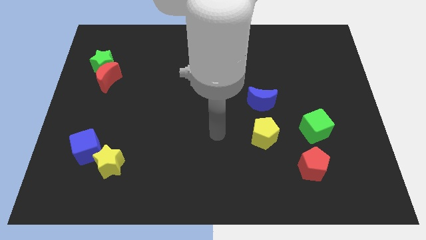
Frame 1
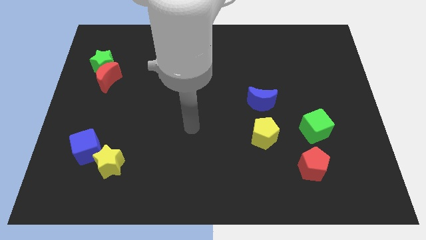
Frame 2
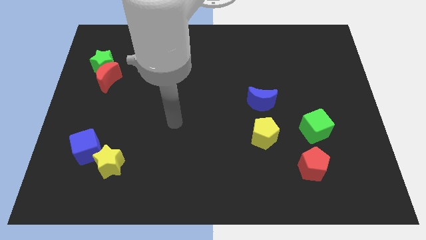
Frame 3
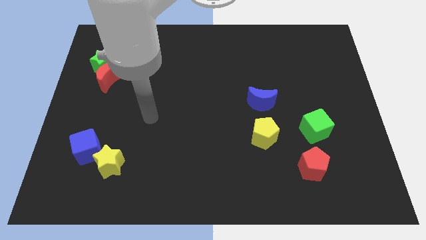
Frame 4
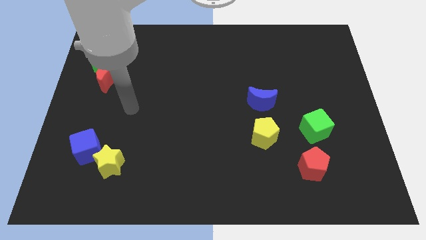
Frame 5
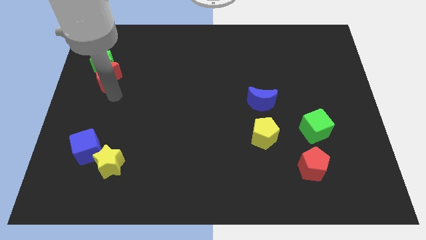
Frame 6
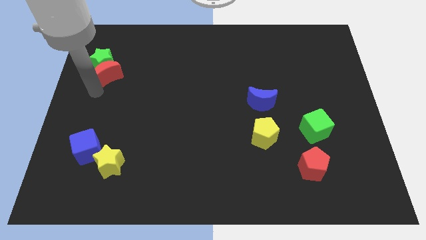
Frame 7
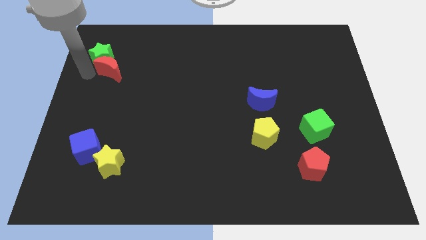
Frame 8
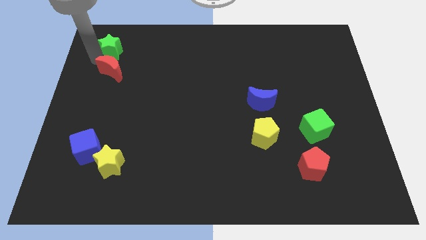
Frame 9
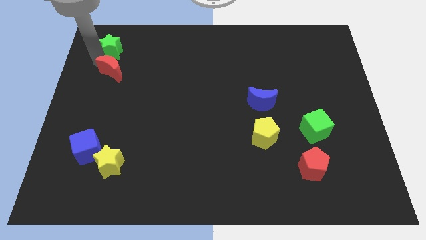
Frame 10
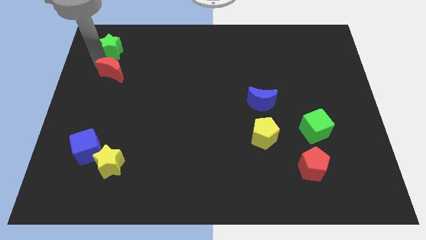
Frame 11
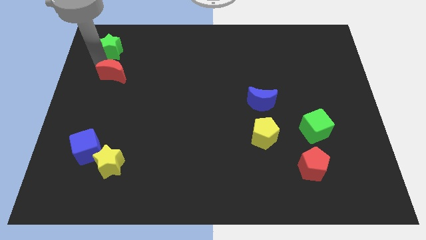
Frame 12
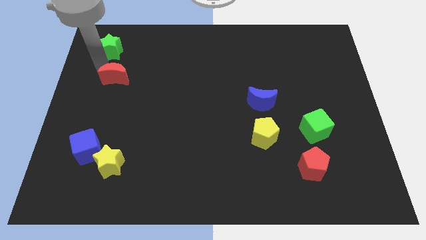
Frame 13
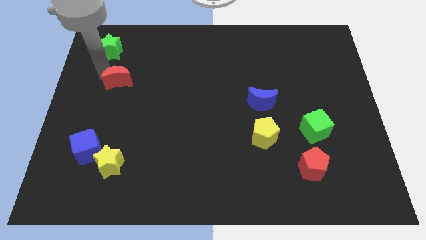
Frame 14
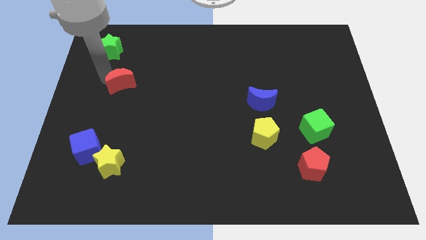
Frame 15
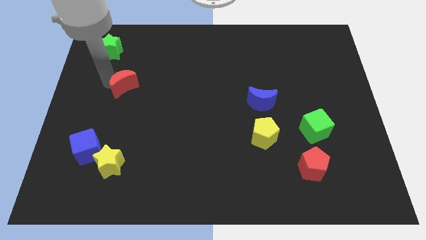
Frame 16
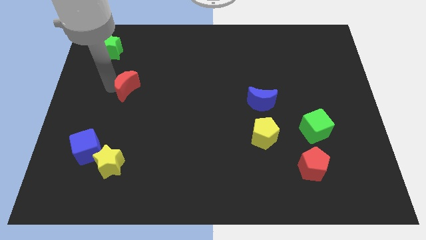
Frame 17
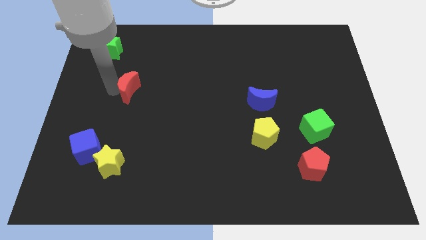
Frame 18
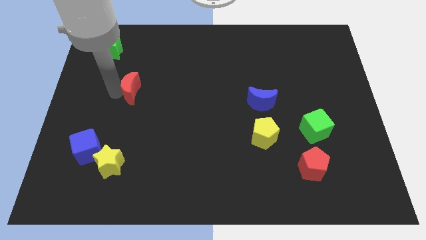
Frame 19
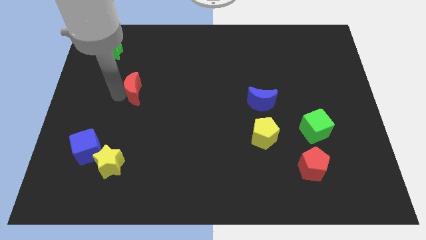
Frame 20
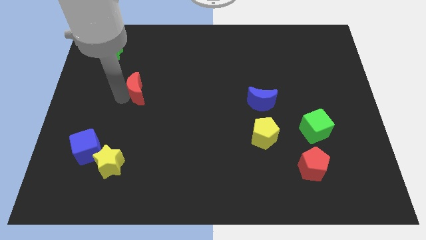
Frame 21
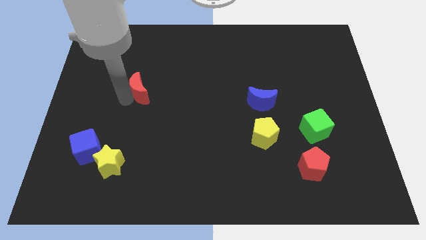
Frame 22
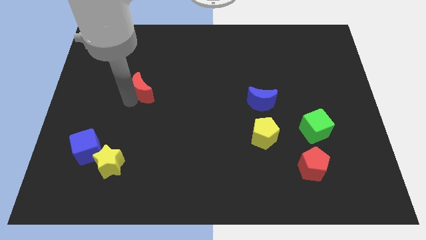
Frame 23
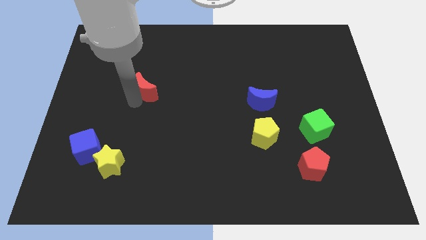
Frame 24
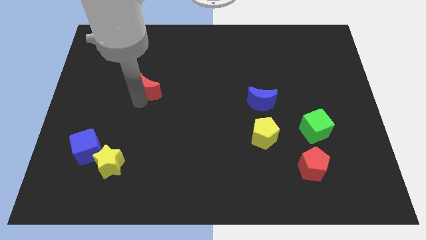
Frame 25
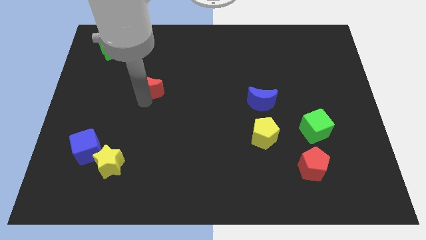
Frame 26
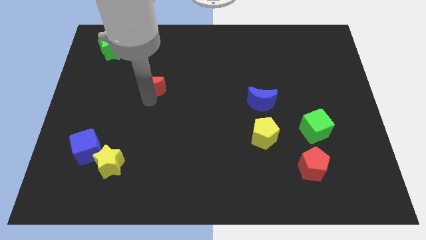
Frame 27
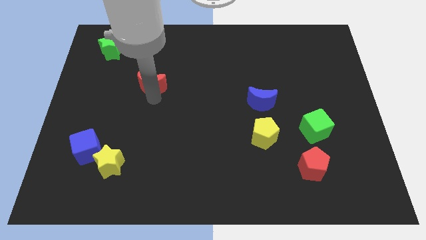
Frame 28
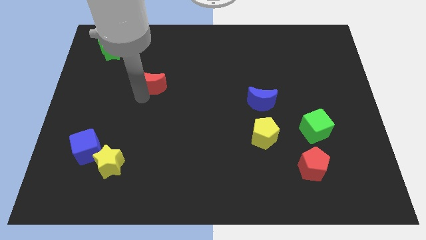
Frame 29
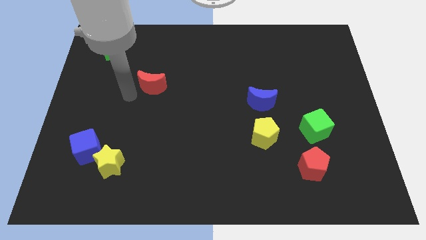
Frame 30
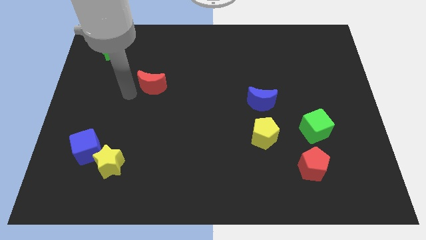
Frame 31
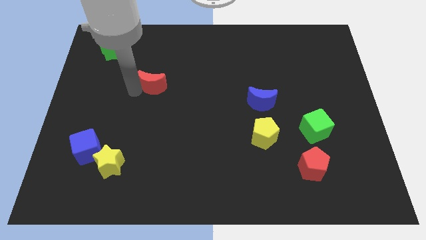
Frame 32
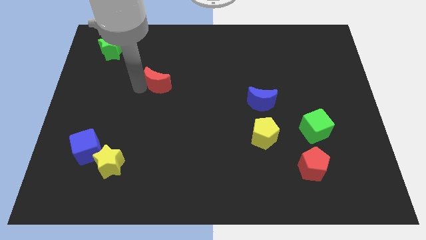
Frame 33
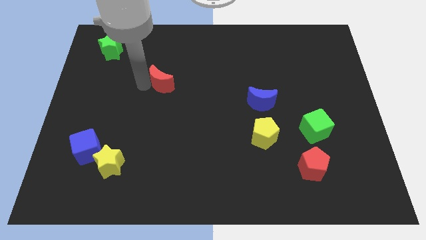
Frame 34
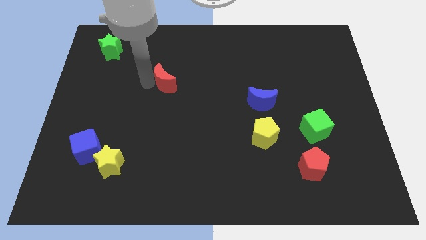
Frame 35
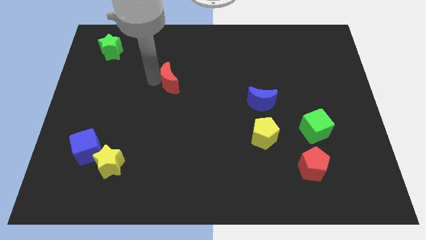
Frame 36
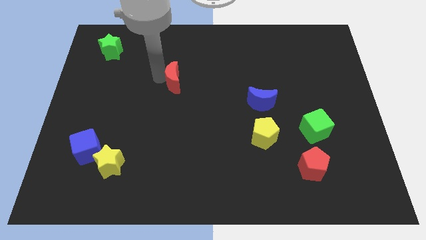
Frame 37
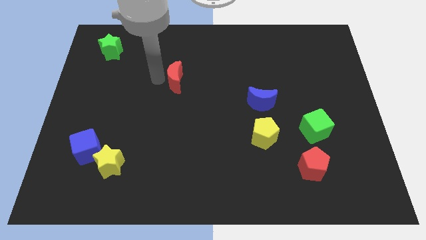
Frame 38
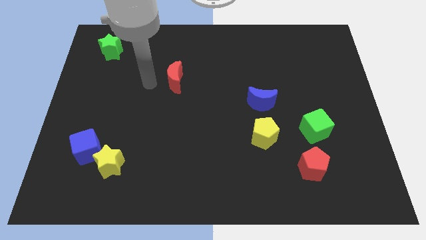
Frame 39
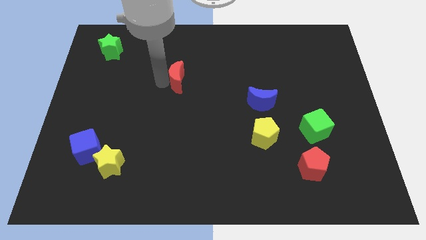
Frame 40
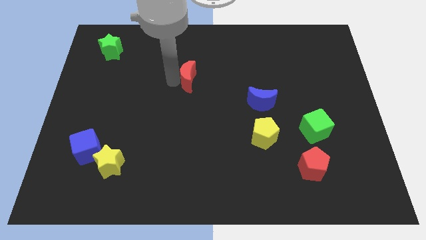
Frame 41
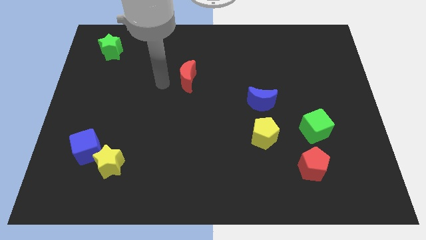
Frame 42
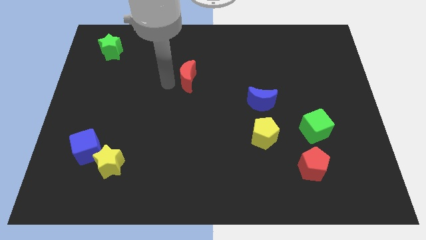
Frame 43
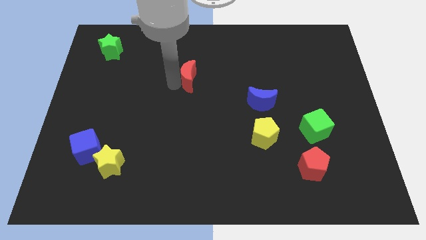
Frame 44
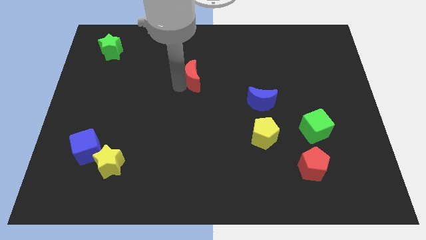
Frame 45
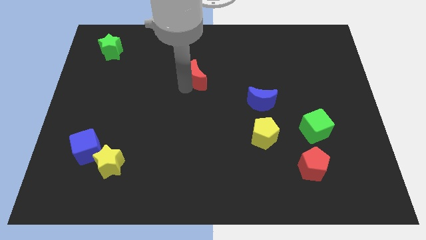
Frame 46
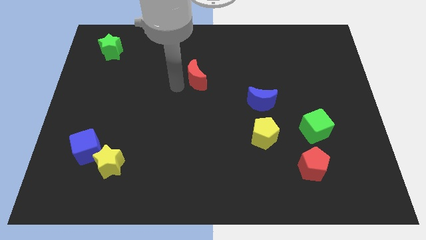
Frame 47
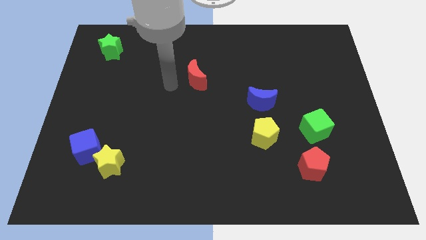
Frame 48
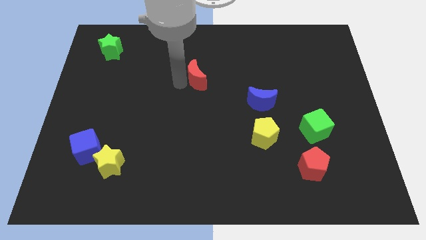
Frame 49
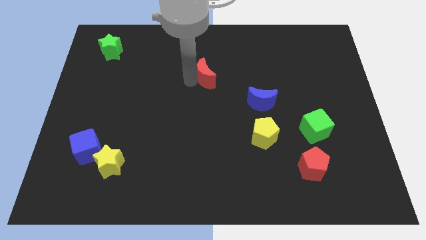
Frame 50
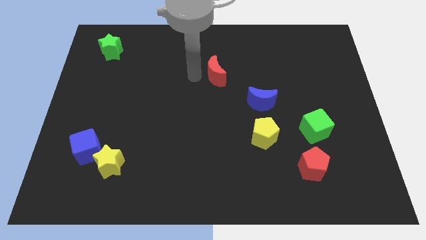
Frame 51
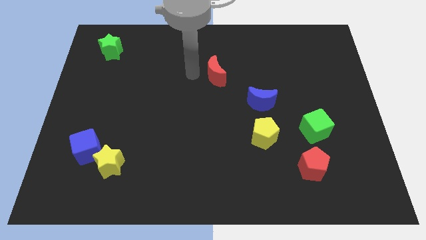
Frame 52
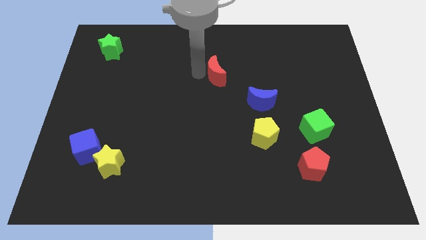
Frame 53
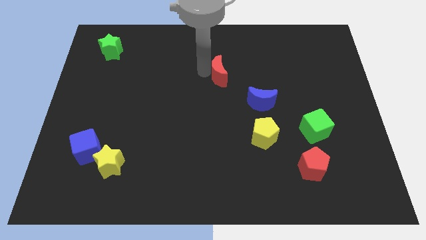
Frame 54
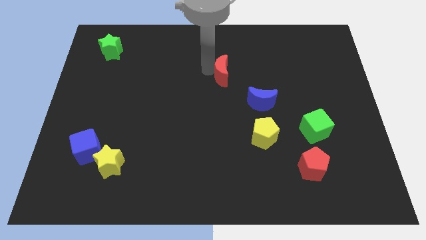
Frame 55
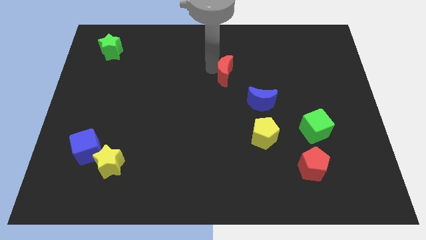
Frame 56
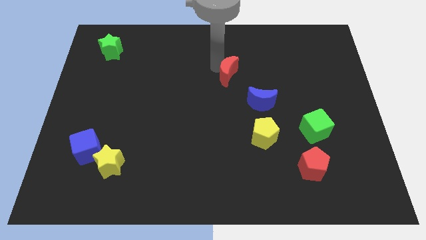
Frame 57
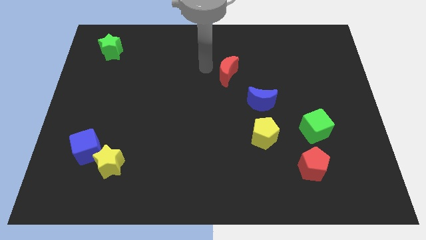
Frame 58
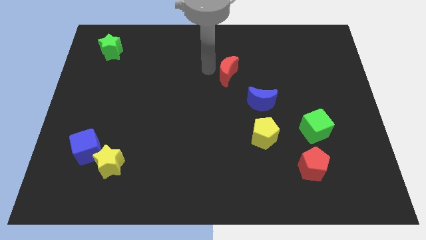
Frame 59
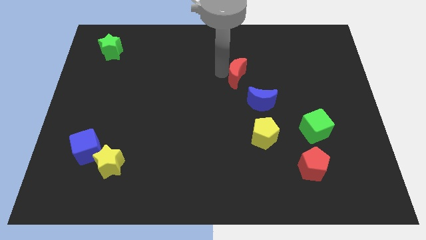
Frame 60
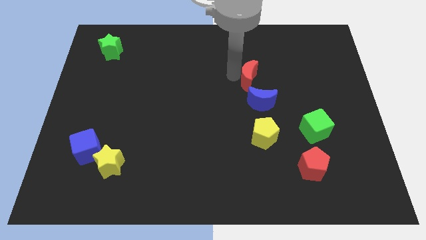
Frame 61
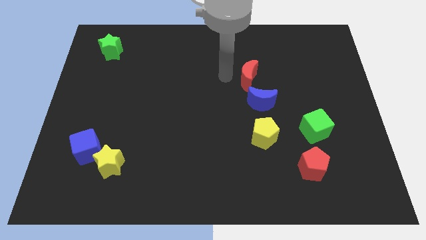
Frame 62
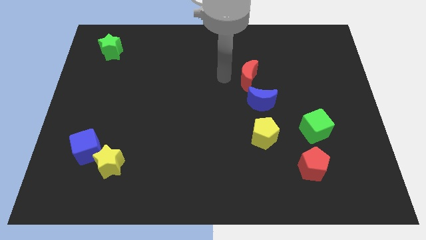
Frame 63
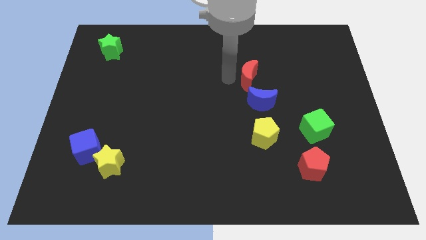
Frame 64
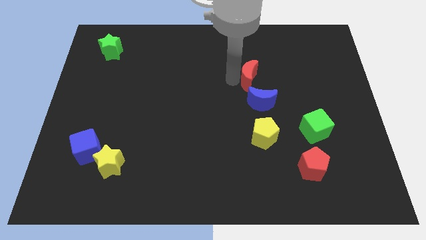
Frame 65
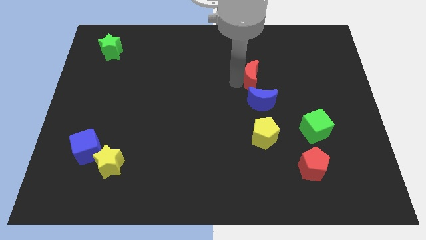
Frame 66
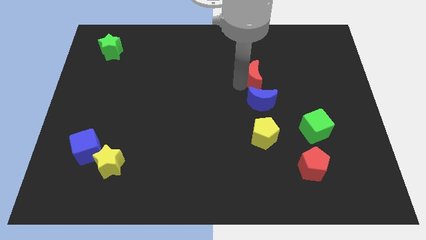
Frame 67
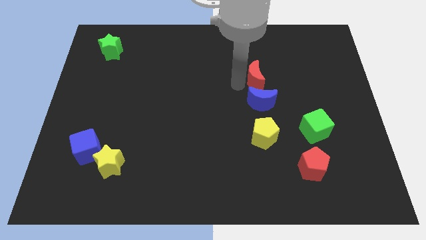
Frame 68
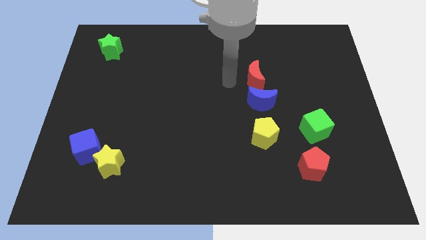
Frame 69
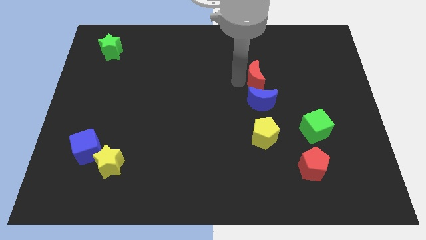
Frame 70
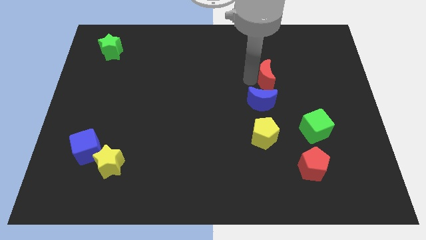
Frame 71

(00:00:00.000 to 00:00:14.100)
move the red moon diagonally up and to the right of the blue moon
